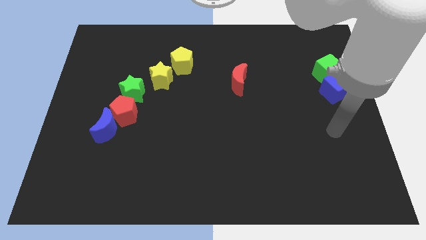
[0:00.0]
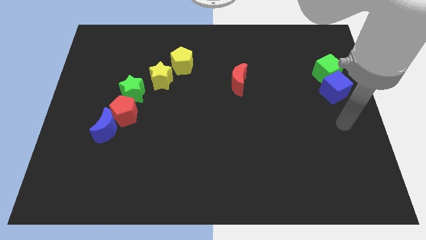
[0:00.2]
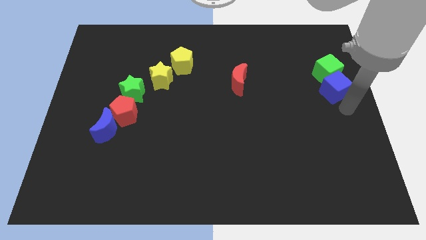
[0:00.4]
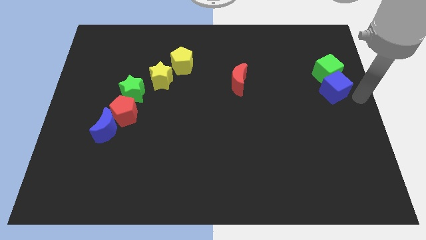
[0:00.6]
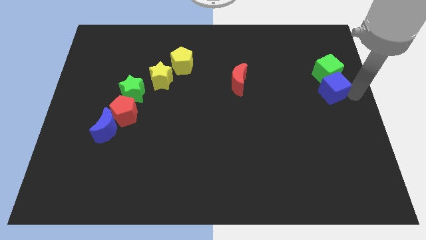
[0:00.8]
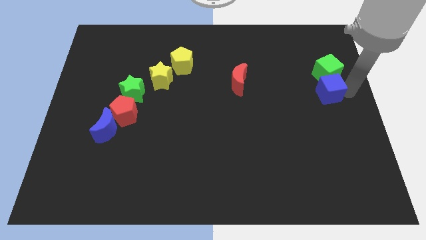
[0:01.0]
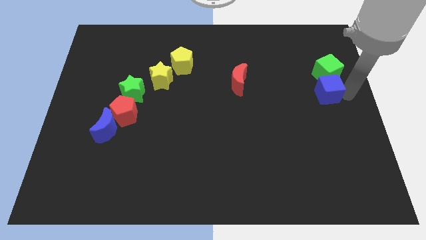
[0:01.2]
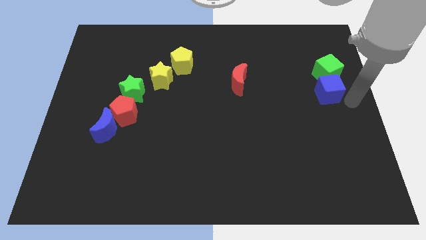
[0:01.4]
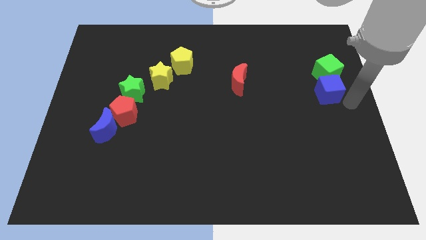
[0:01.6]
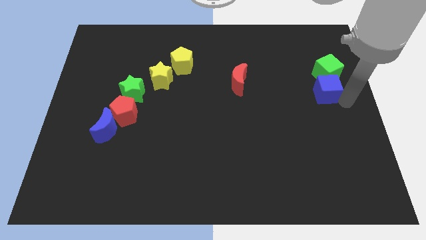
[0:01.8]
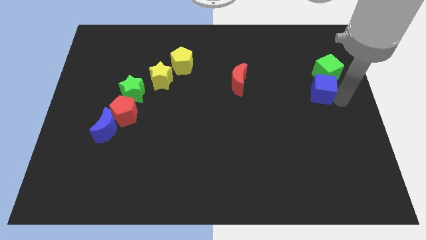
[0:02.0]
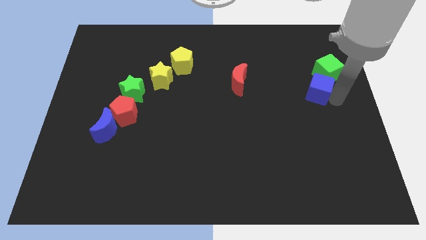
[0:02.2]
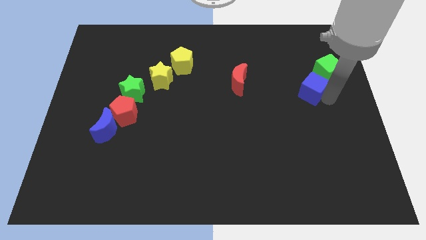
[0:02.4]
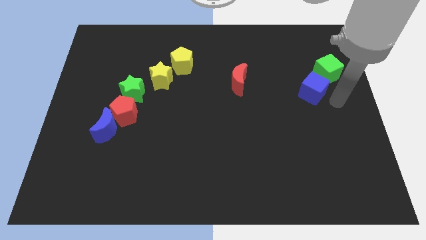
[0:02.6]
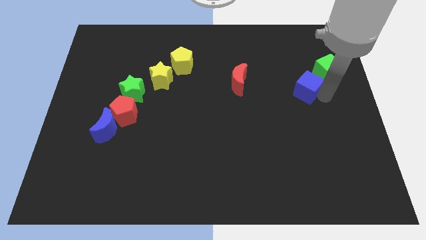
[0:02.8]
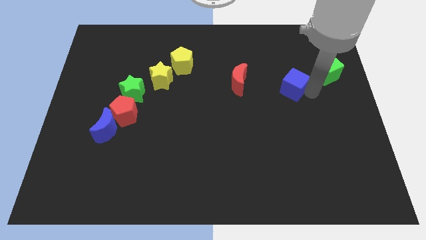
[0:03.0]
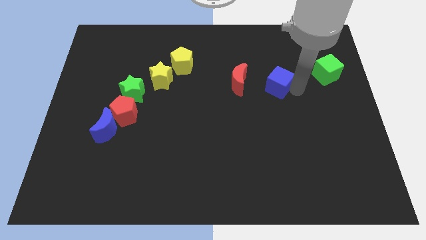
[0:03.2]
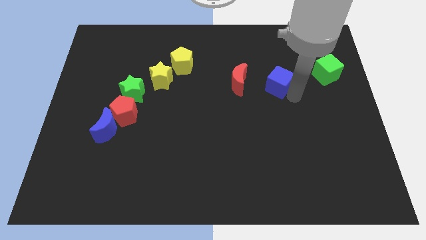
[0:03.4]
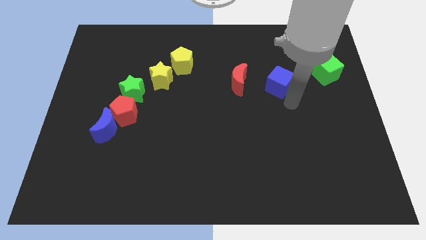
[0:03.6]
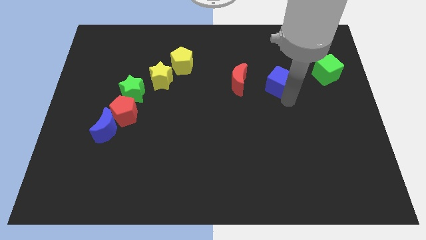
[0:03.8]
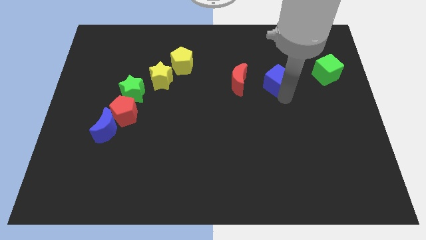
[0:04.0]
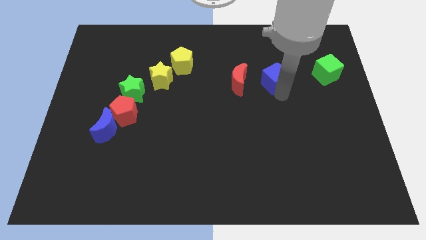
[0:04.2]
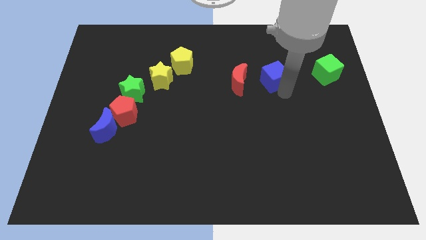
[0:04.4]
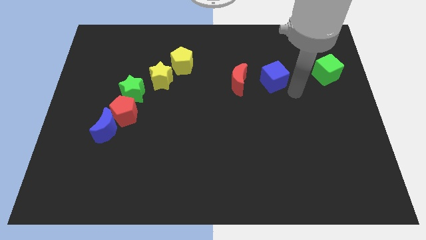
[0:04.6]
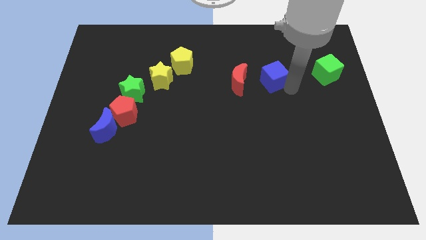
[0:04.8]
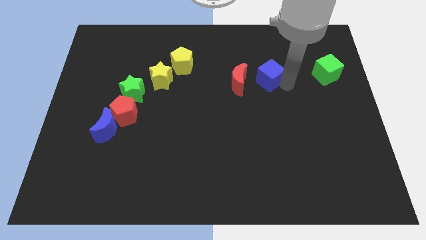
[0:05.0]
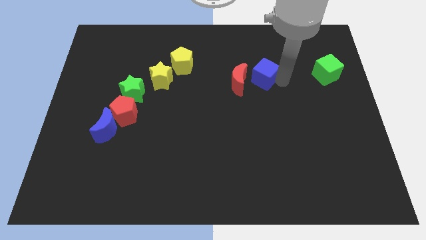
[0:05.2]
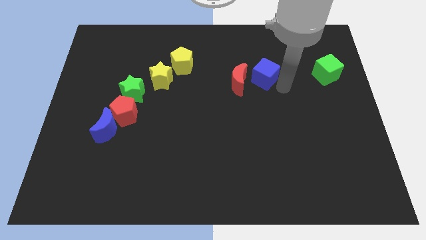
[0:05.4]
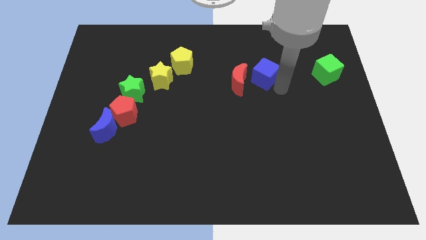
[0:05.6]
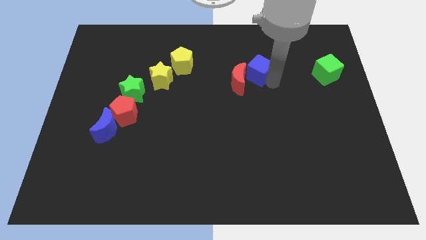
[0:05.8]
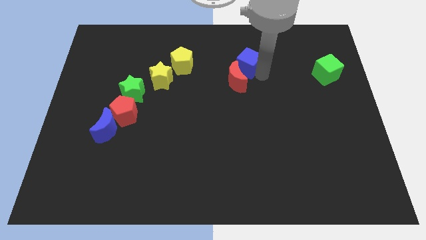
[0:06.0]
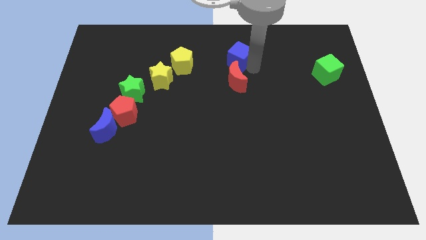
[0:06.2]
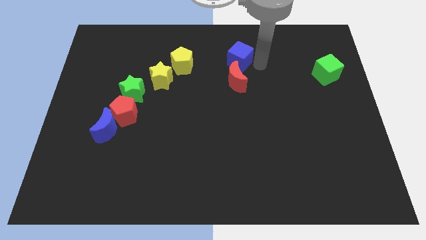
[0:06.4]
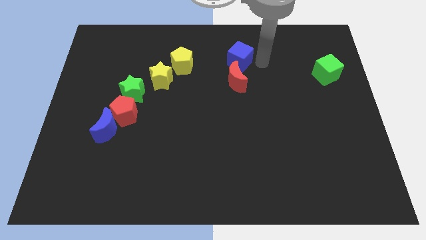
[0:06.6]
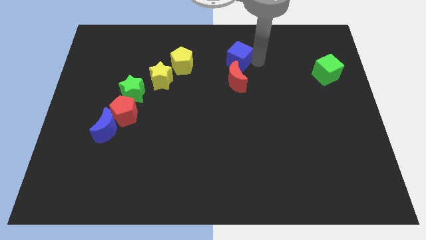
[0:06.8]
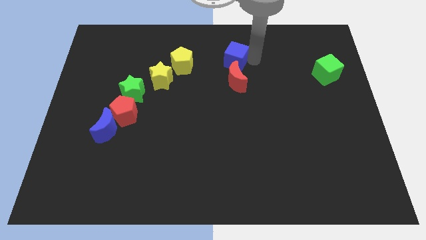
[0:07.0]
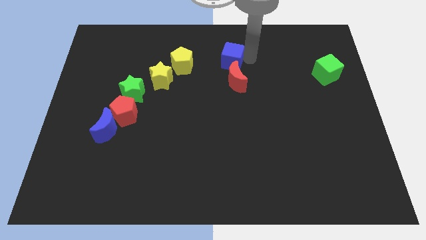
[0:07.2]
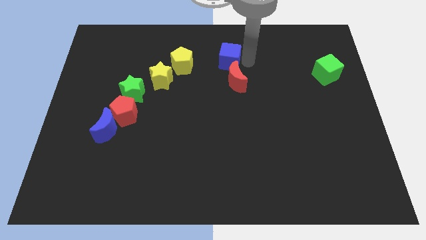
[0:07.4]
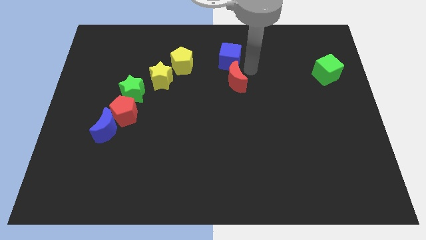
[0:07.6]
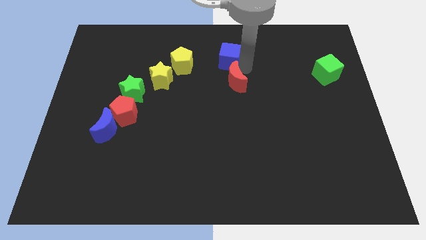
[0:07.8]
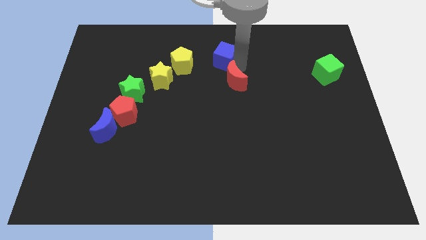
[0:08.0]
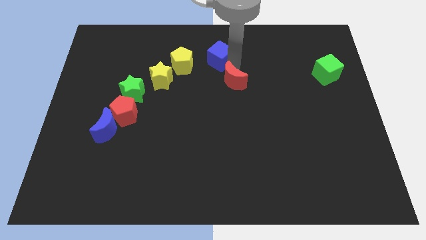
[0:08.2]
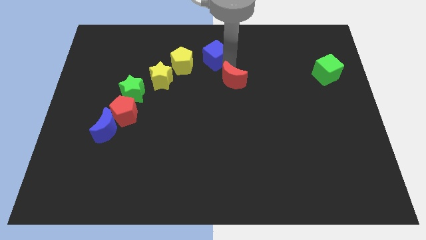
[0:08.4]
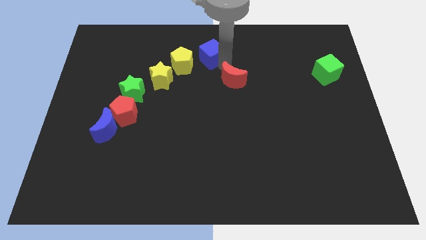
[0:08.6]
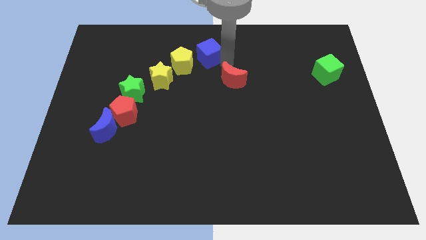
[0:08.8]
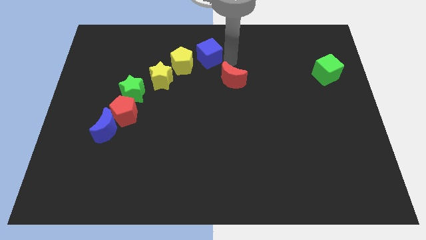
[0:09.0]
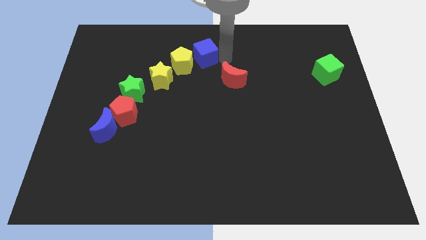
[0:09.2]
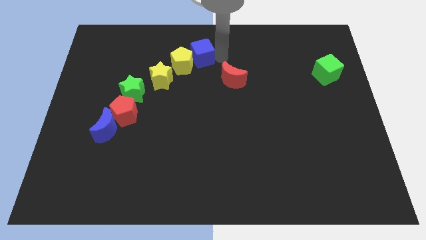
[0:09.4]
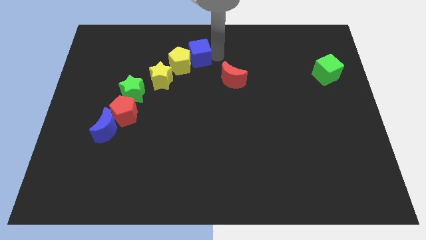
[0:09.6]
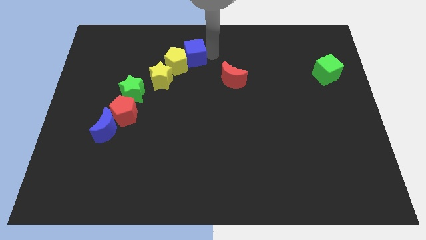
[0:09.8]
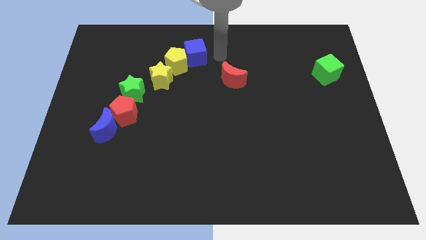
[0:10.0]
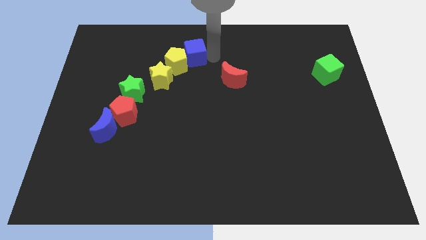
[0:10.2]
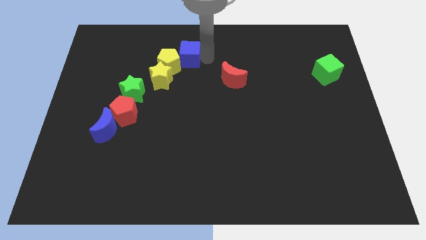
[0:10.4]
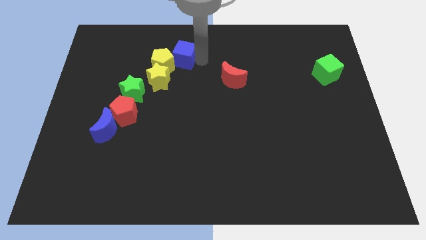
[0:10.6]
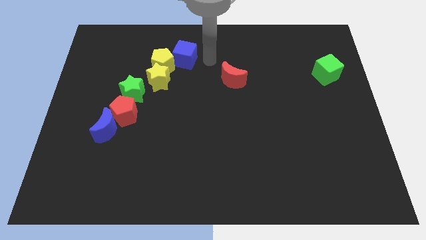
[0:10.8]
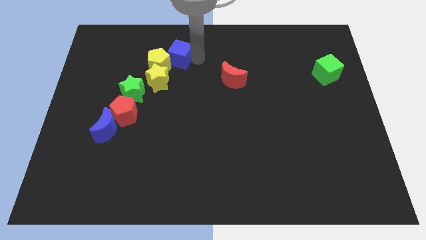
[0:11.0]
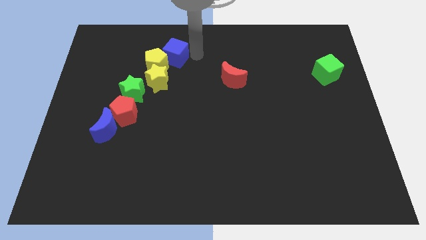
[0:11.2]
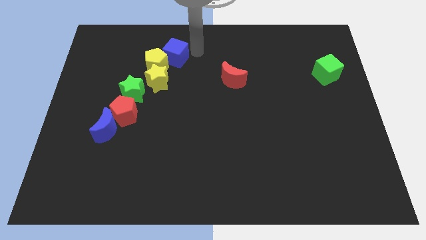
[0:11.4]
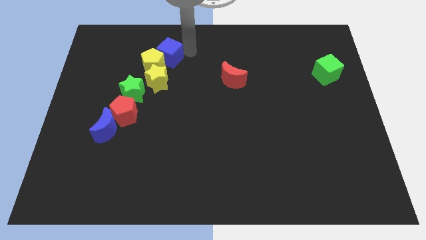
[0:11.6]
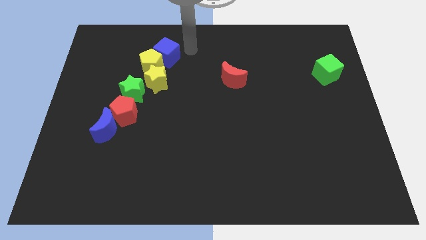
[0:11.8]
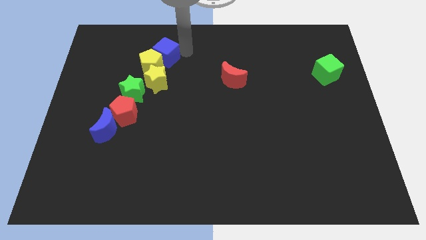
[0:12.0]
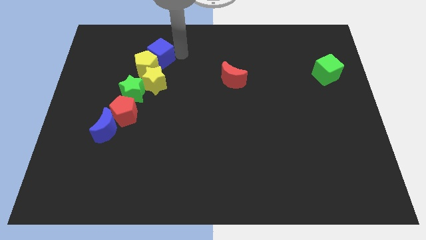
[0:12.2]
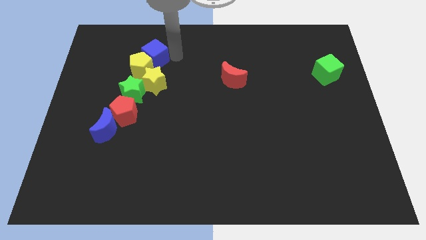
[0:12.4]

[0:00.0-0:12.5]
move the blue cube above the green star

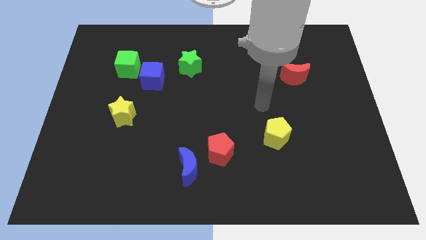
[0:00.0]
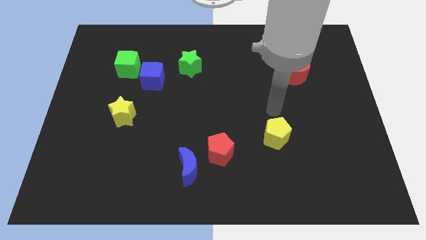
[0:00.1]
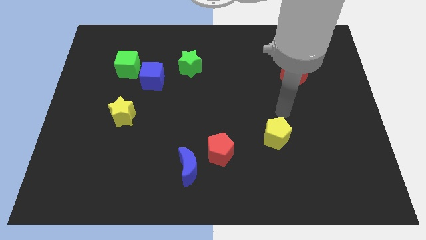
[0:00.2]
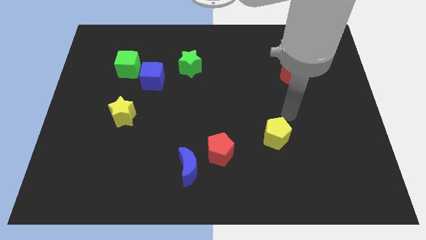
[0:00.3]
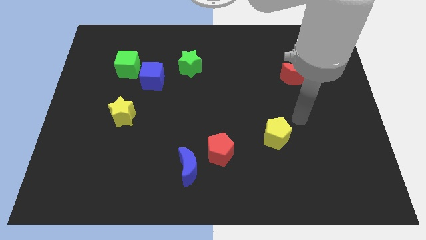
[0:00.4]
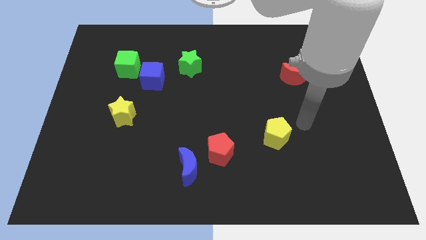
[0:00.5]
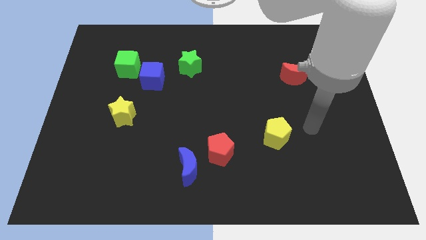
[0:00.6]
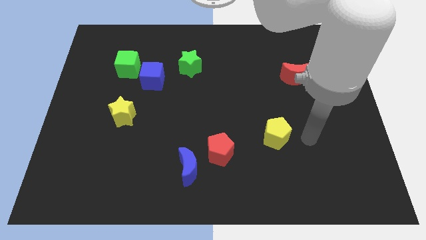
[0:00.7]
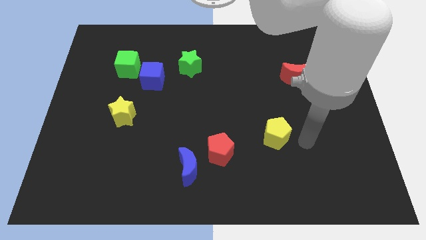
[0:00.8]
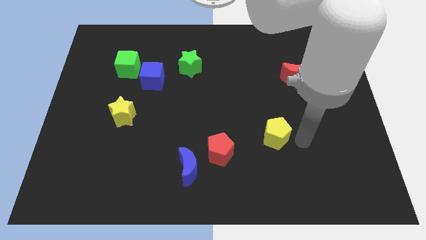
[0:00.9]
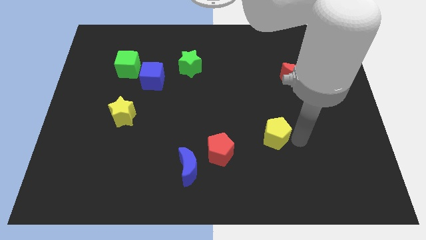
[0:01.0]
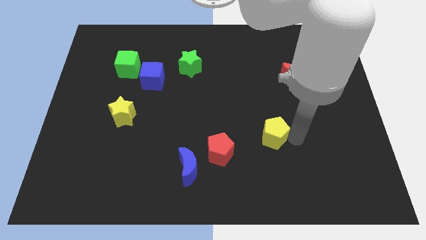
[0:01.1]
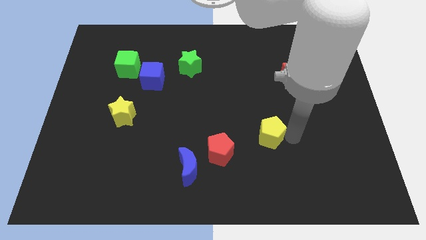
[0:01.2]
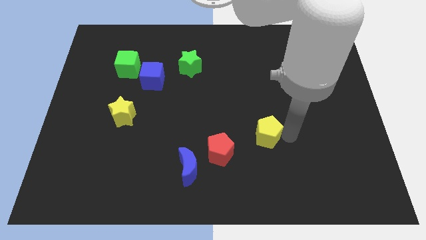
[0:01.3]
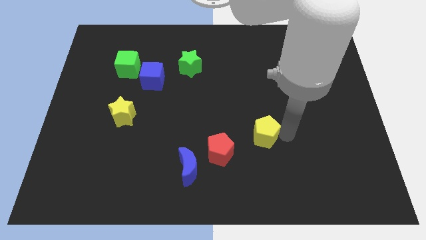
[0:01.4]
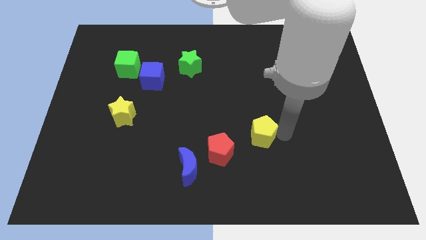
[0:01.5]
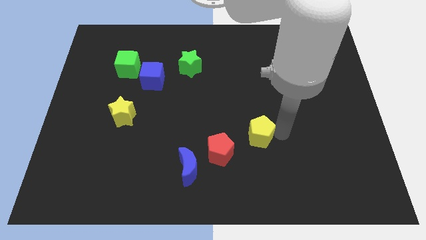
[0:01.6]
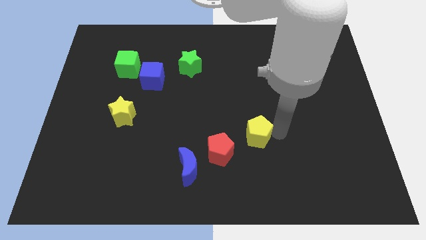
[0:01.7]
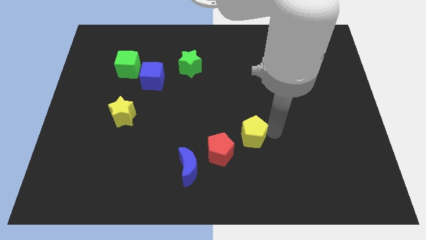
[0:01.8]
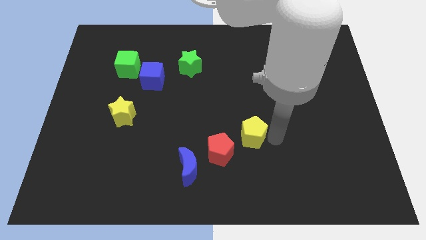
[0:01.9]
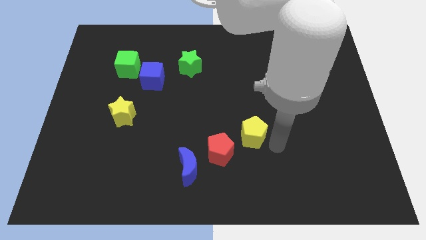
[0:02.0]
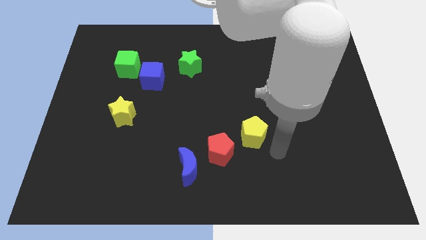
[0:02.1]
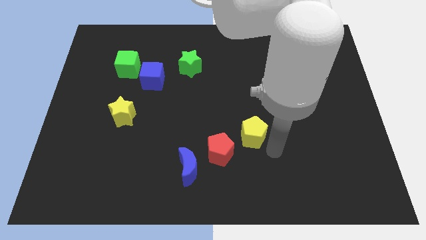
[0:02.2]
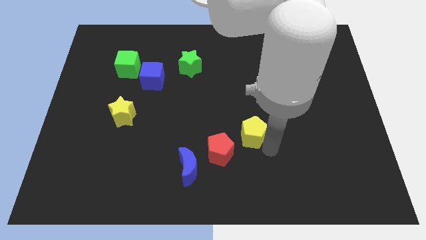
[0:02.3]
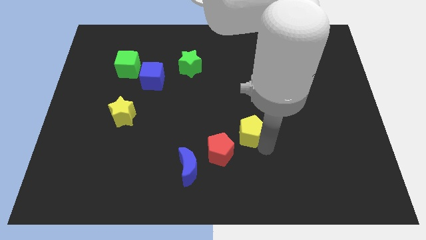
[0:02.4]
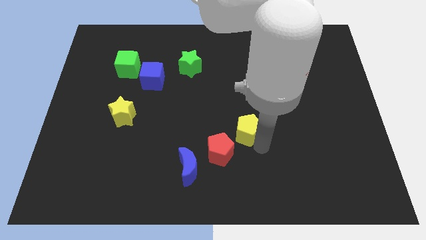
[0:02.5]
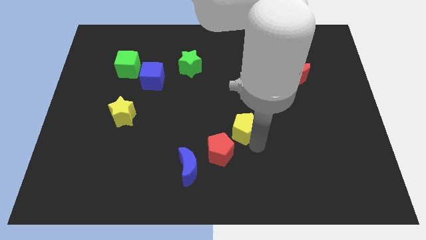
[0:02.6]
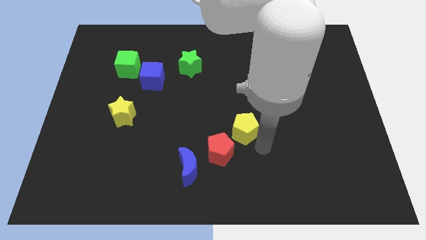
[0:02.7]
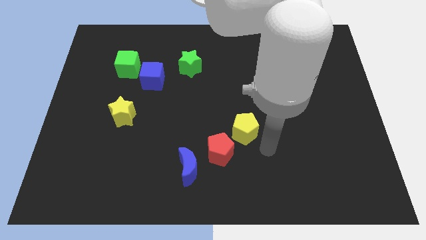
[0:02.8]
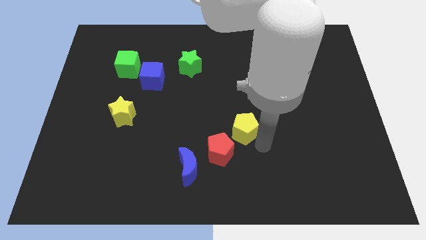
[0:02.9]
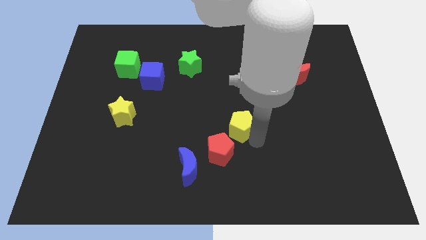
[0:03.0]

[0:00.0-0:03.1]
move the yellow pentagon to the top of the red pentagon
